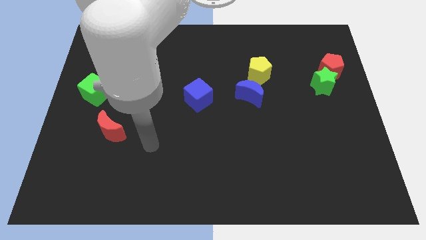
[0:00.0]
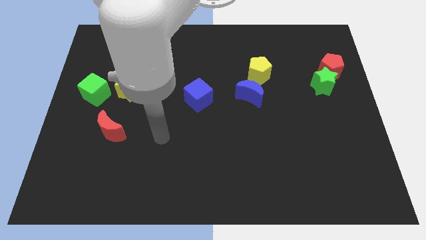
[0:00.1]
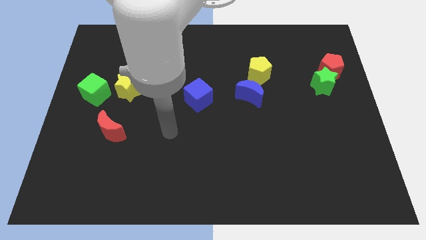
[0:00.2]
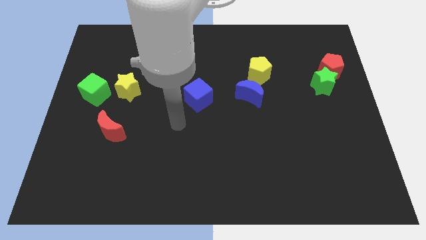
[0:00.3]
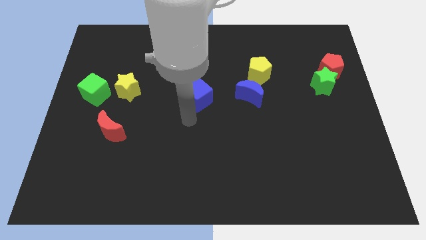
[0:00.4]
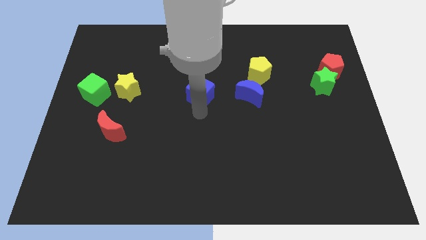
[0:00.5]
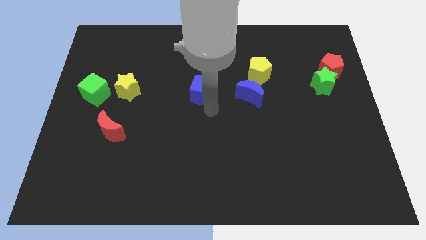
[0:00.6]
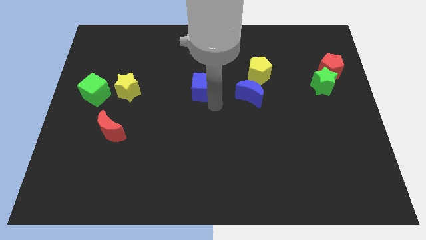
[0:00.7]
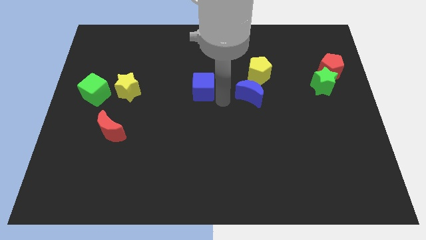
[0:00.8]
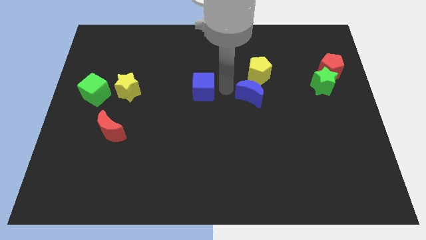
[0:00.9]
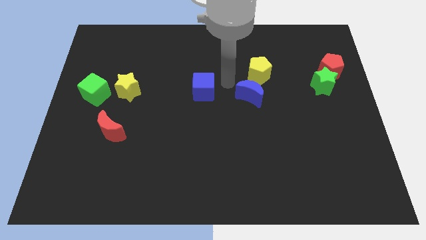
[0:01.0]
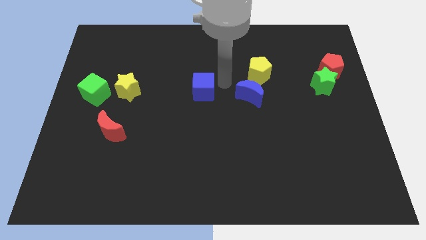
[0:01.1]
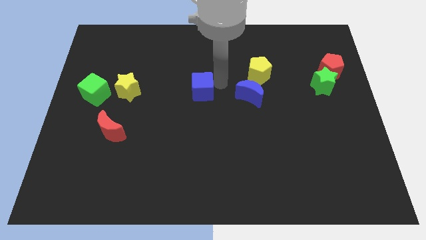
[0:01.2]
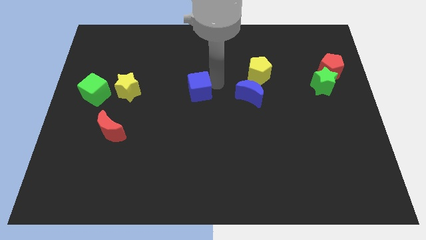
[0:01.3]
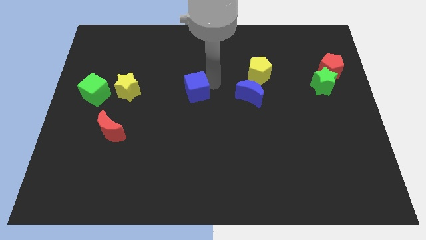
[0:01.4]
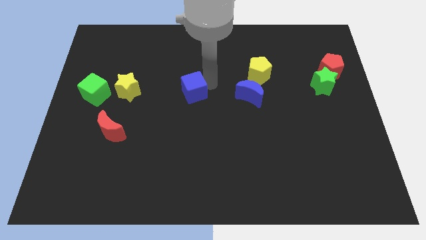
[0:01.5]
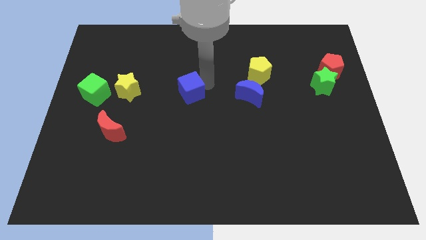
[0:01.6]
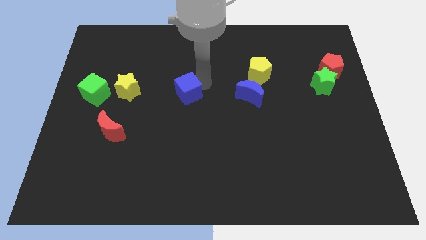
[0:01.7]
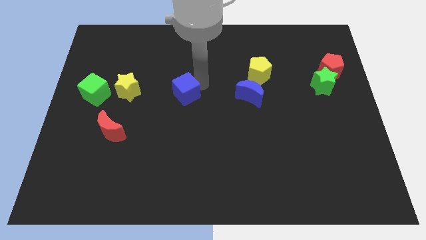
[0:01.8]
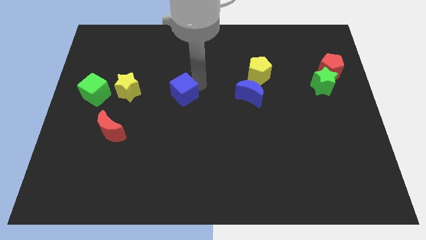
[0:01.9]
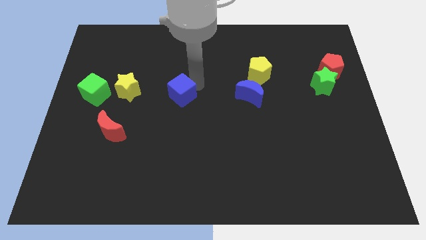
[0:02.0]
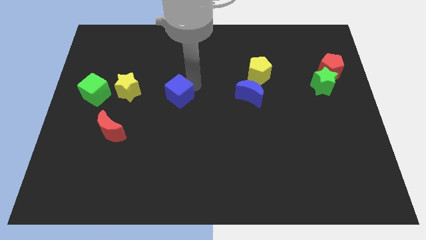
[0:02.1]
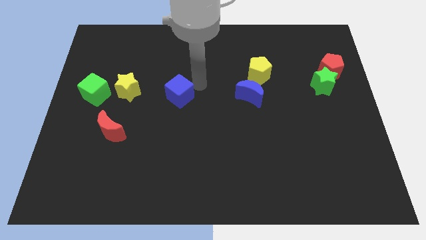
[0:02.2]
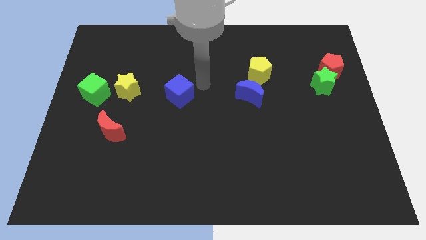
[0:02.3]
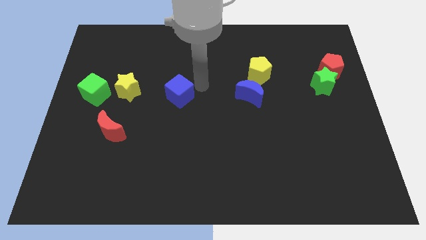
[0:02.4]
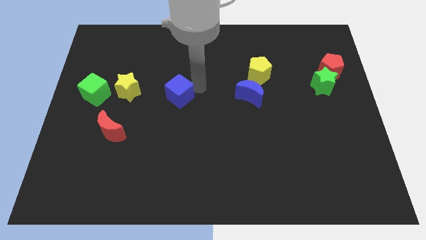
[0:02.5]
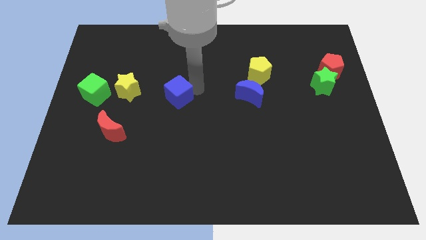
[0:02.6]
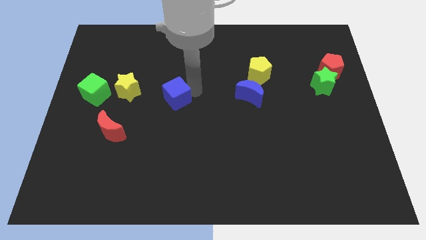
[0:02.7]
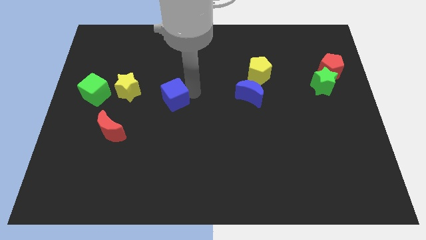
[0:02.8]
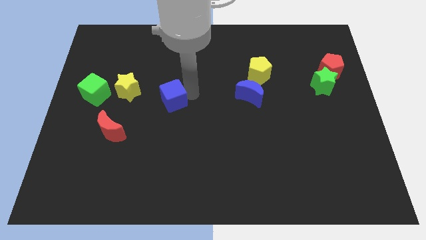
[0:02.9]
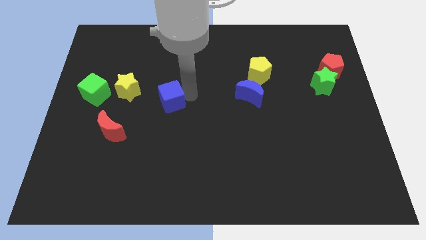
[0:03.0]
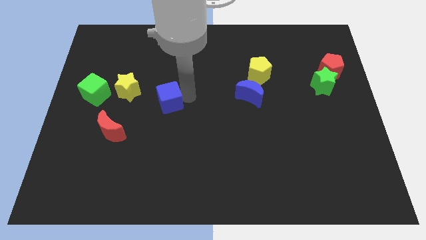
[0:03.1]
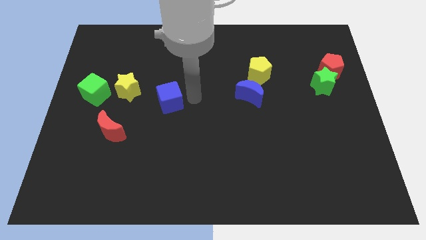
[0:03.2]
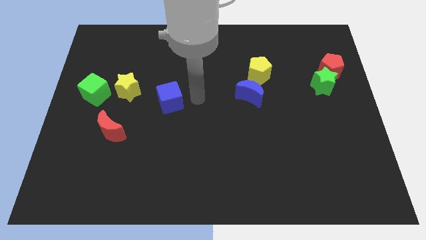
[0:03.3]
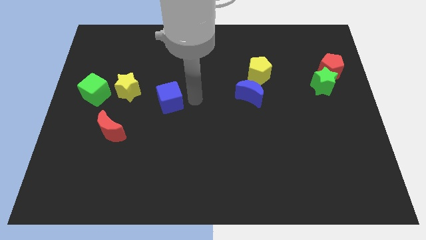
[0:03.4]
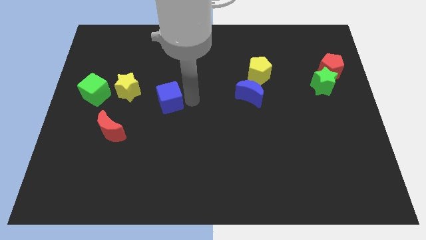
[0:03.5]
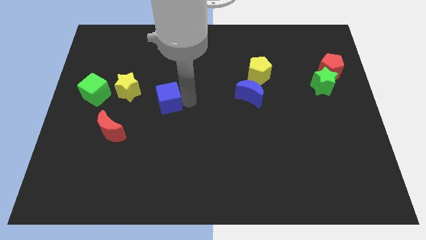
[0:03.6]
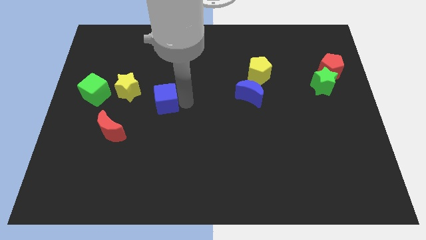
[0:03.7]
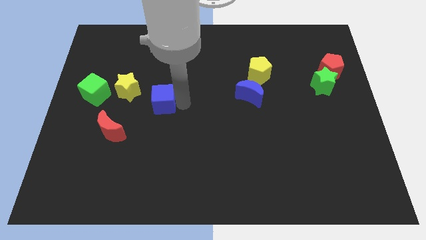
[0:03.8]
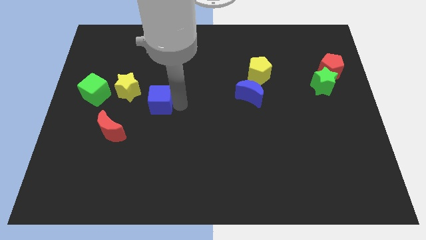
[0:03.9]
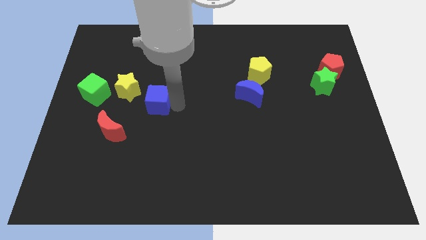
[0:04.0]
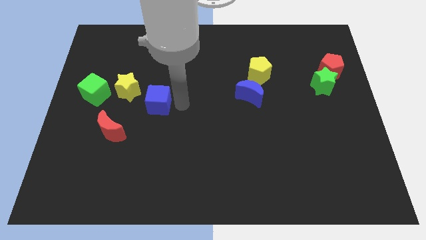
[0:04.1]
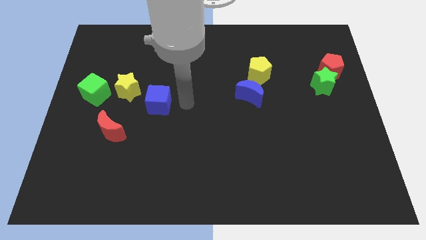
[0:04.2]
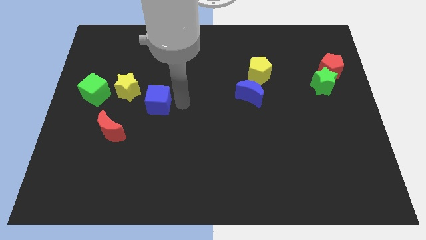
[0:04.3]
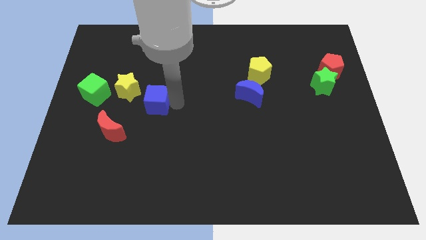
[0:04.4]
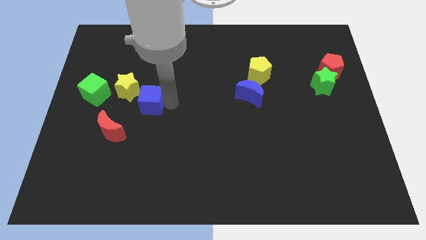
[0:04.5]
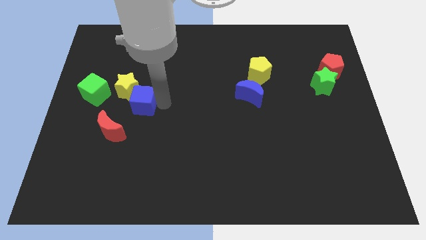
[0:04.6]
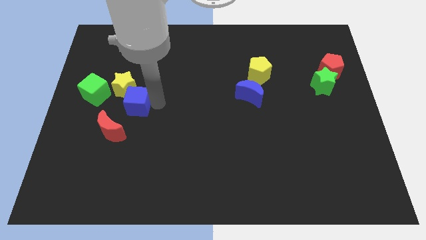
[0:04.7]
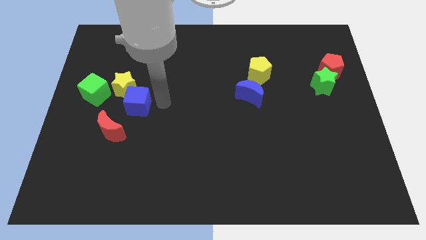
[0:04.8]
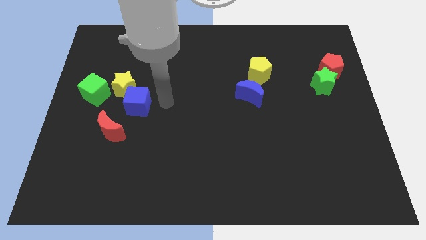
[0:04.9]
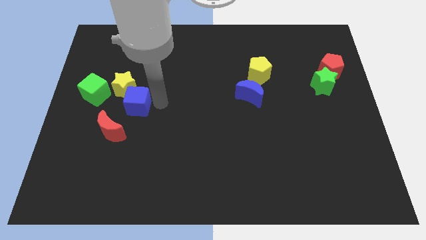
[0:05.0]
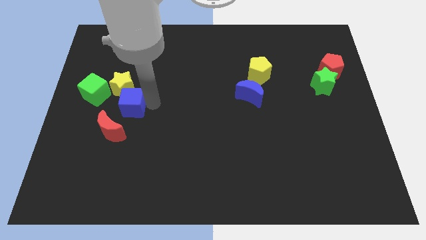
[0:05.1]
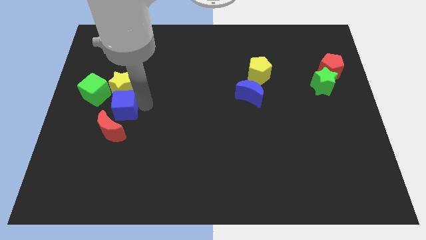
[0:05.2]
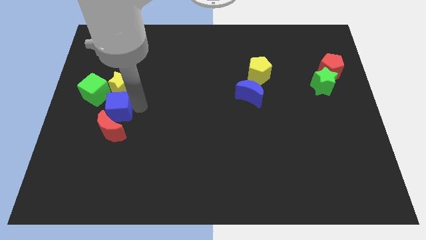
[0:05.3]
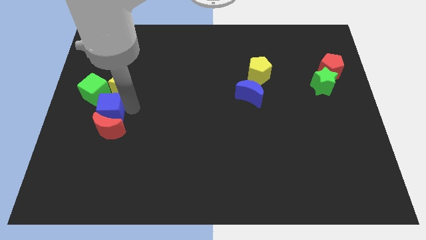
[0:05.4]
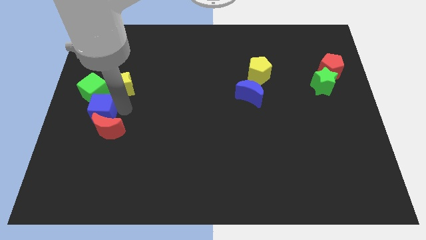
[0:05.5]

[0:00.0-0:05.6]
put the blue cube to the left side

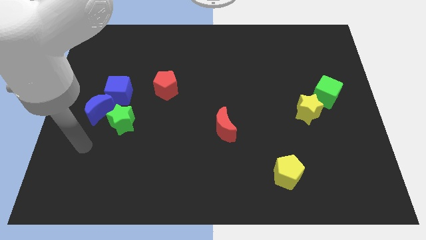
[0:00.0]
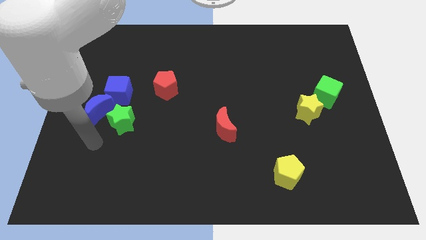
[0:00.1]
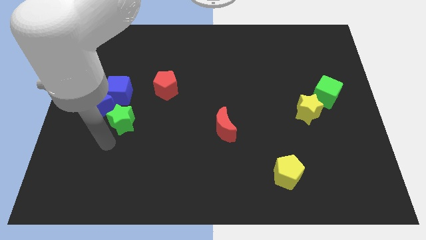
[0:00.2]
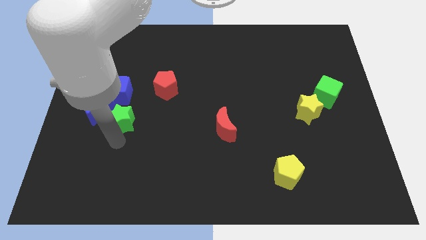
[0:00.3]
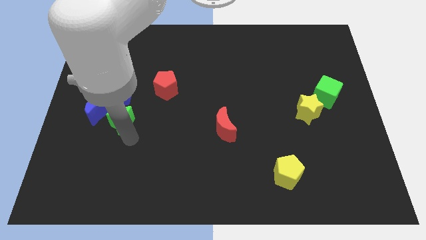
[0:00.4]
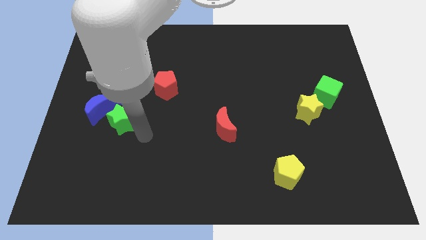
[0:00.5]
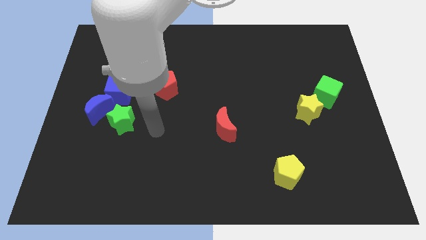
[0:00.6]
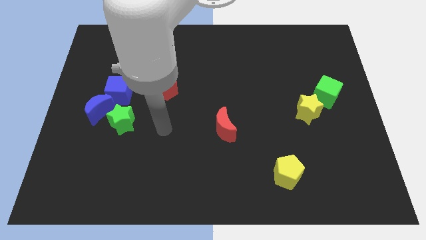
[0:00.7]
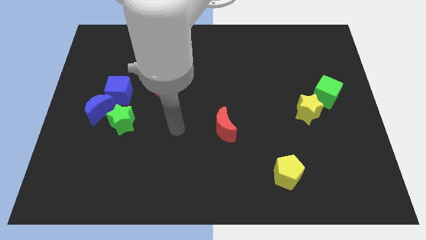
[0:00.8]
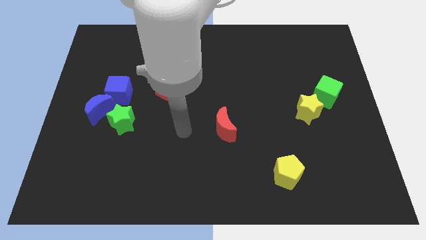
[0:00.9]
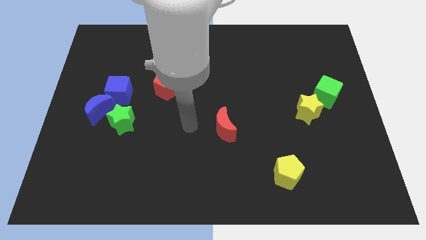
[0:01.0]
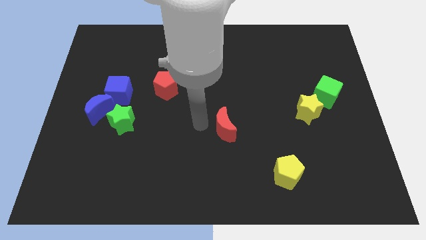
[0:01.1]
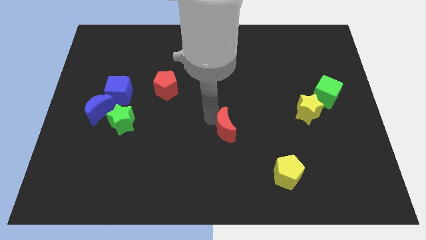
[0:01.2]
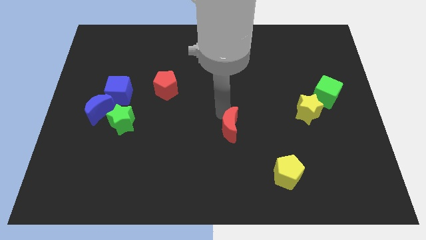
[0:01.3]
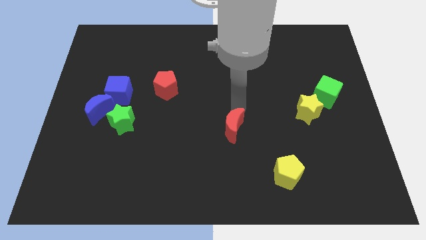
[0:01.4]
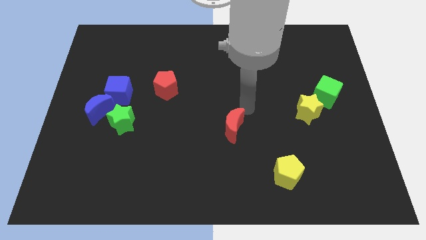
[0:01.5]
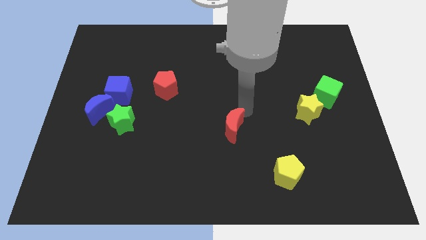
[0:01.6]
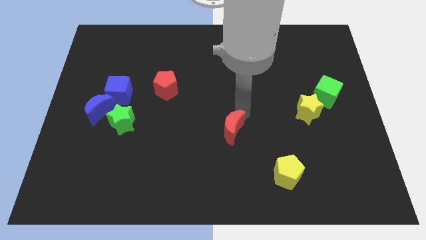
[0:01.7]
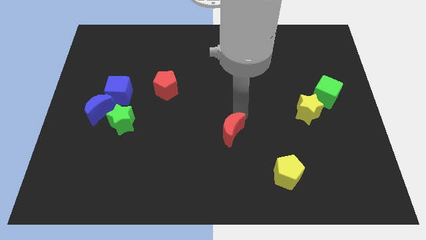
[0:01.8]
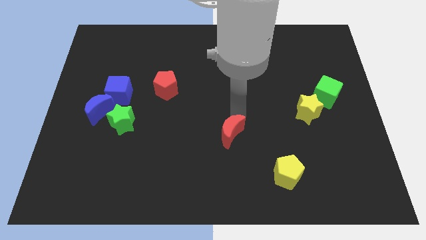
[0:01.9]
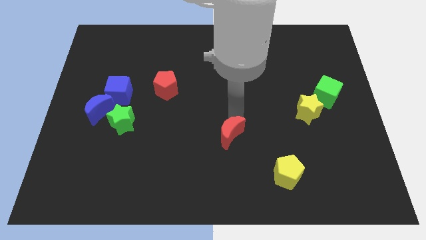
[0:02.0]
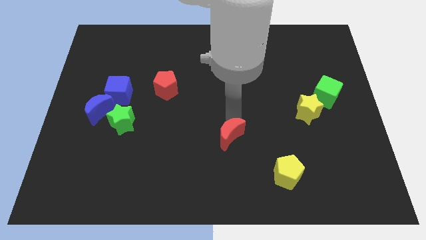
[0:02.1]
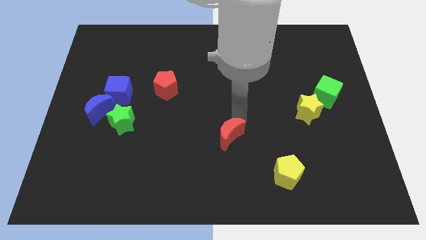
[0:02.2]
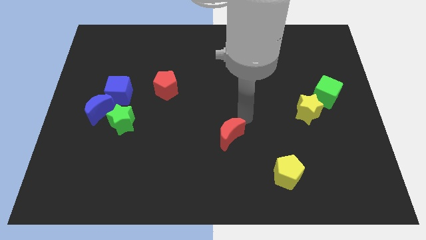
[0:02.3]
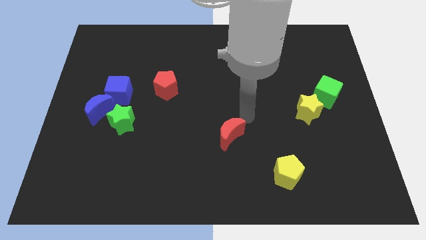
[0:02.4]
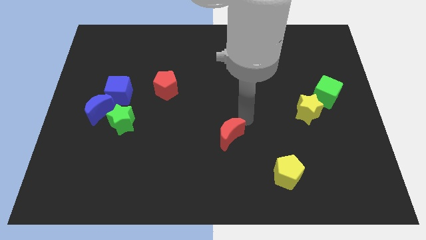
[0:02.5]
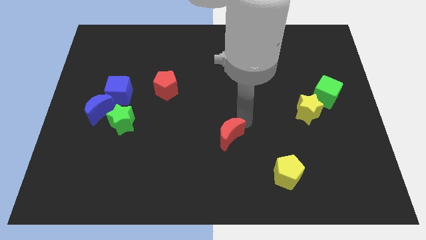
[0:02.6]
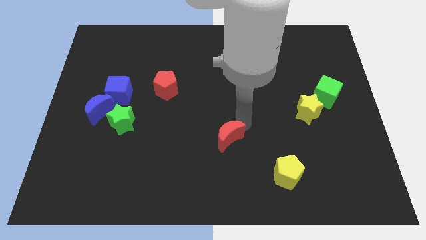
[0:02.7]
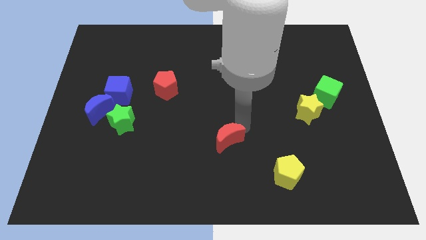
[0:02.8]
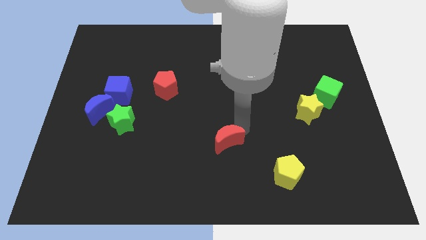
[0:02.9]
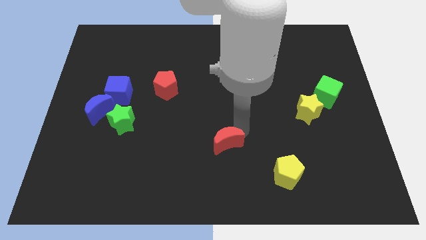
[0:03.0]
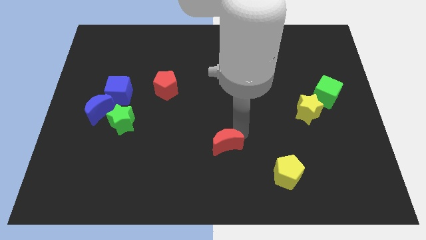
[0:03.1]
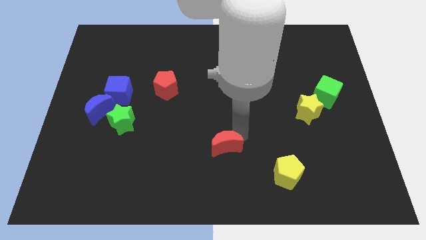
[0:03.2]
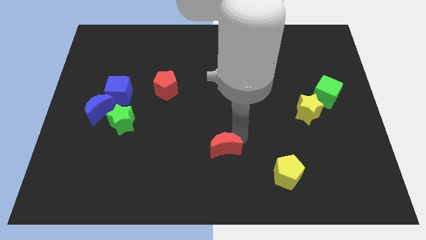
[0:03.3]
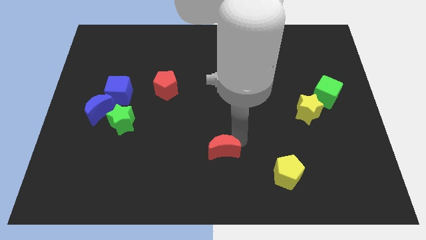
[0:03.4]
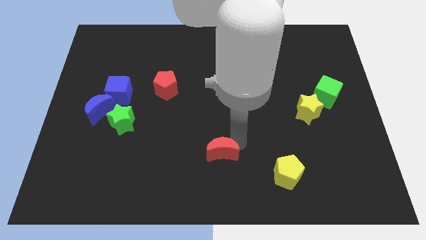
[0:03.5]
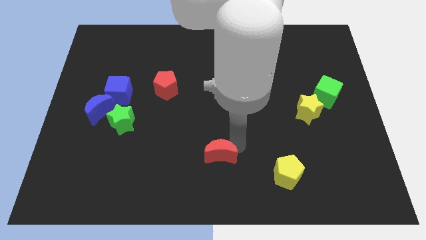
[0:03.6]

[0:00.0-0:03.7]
move the red moon to the bottom
